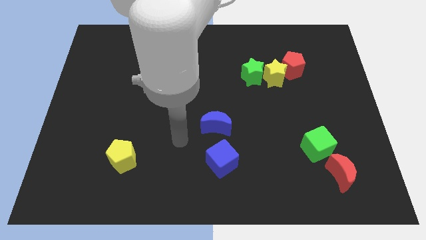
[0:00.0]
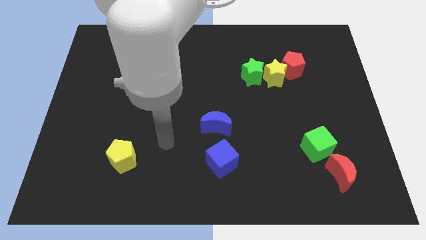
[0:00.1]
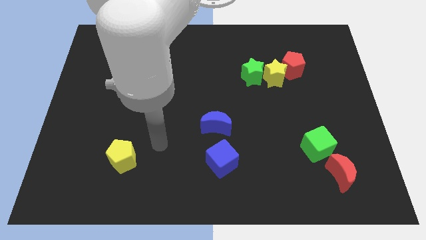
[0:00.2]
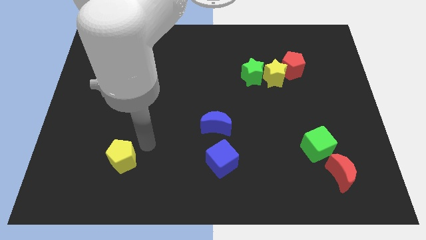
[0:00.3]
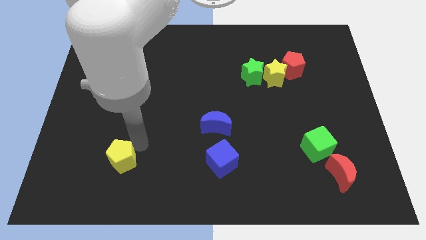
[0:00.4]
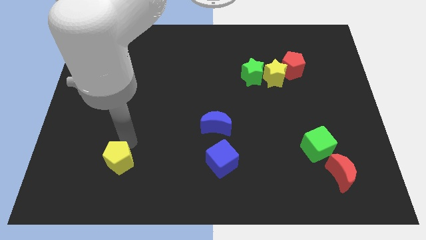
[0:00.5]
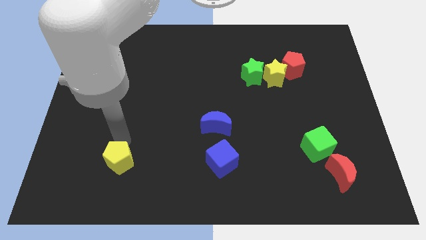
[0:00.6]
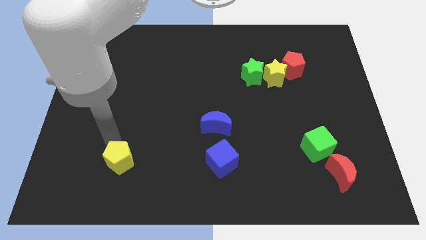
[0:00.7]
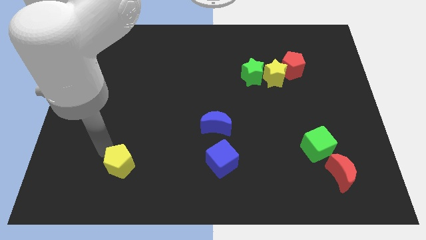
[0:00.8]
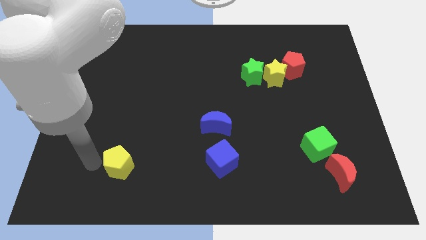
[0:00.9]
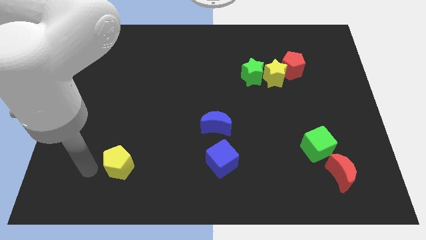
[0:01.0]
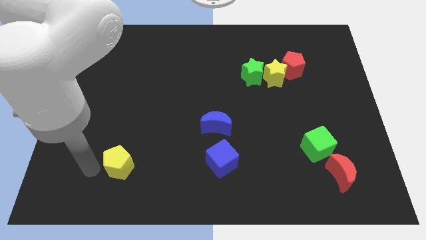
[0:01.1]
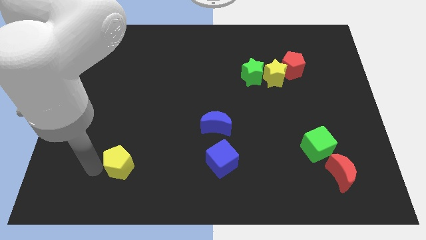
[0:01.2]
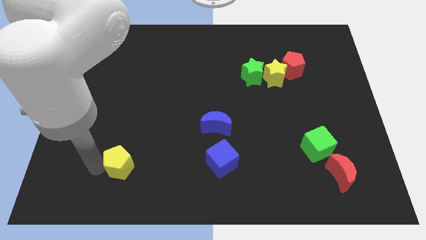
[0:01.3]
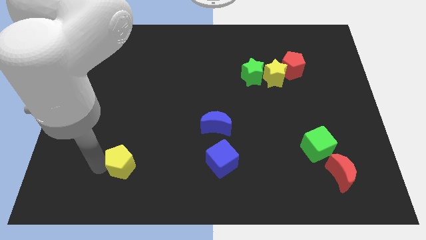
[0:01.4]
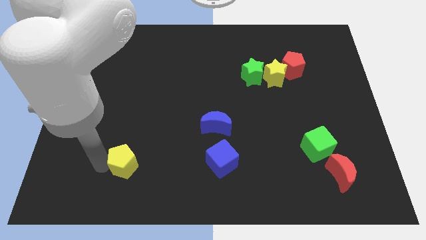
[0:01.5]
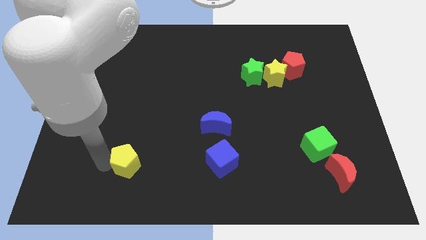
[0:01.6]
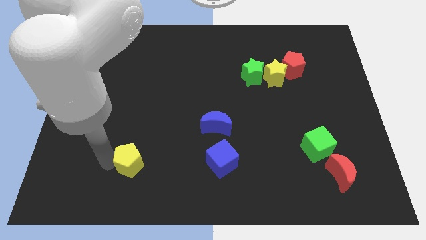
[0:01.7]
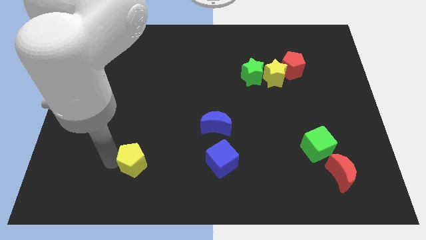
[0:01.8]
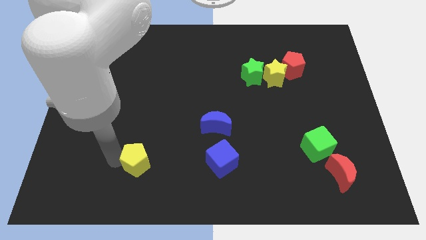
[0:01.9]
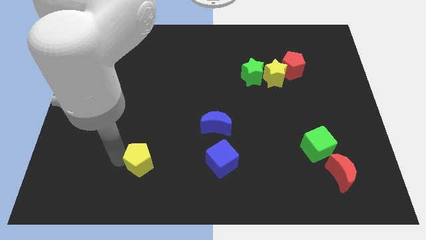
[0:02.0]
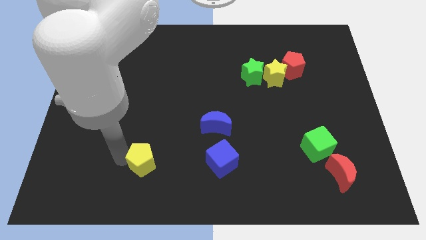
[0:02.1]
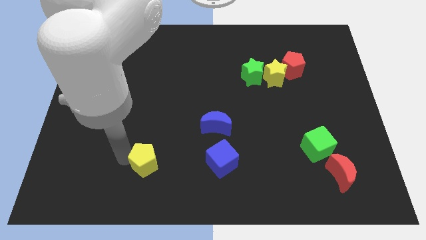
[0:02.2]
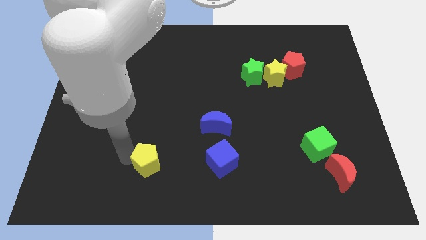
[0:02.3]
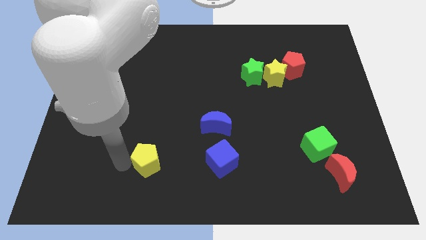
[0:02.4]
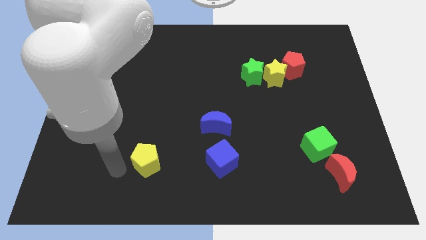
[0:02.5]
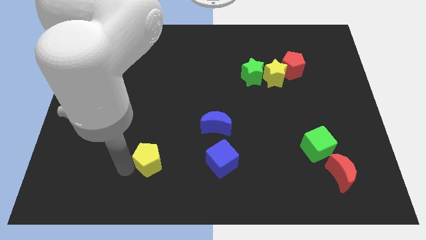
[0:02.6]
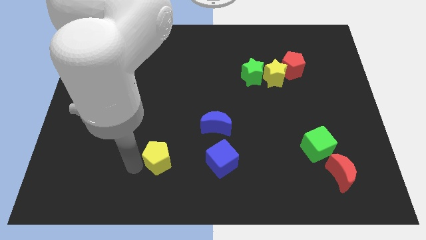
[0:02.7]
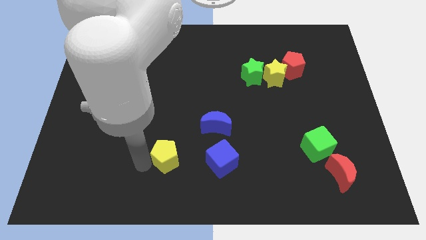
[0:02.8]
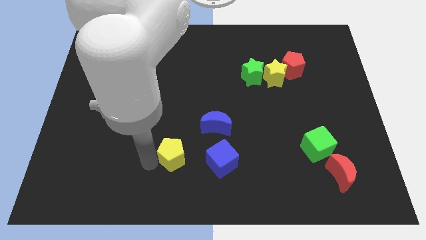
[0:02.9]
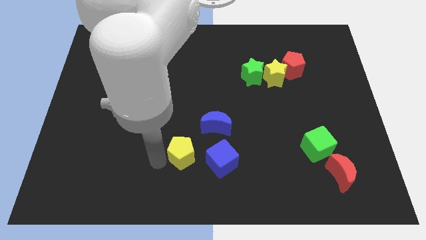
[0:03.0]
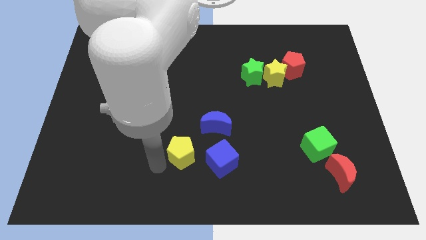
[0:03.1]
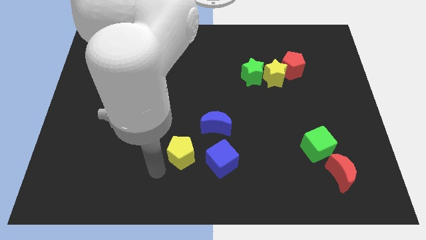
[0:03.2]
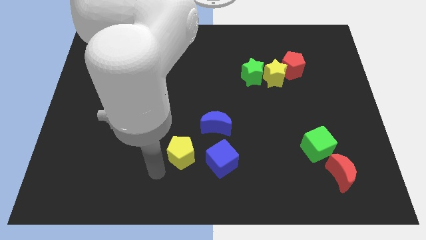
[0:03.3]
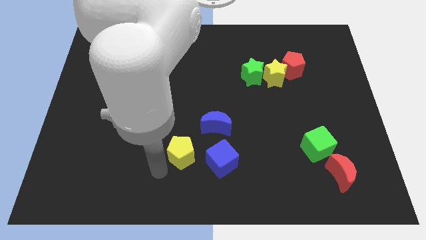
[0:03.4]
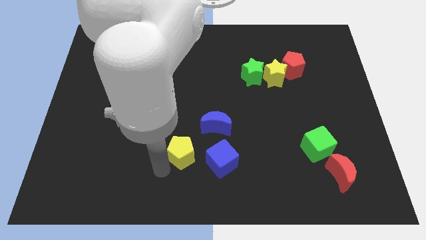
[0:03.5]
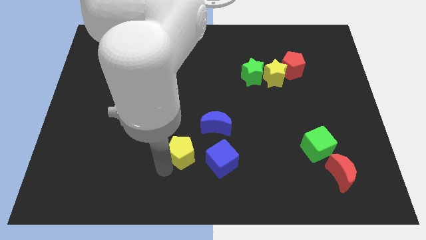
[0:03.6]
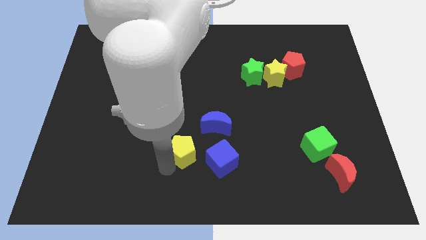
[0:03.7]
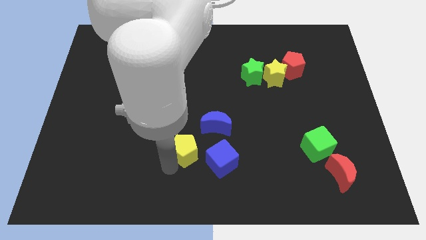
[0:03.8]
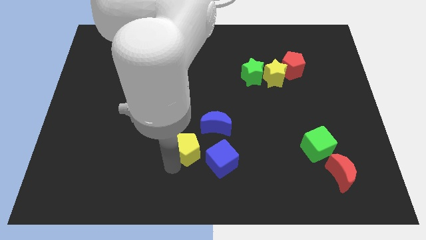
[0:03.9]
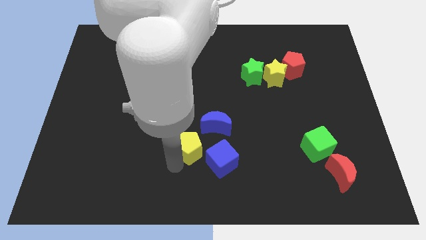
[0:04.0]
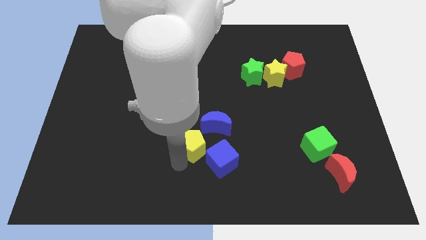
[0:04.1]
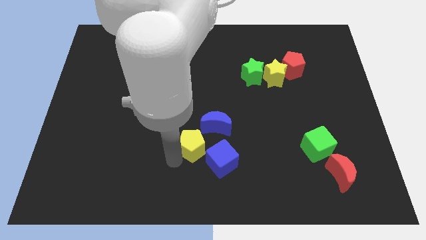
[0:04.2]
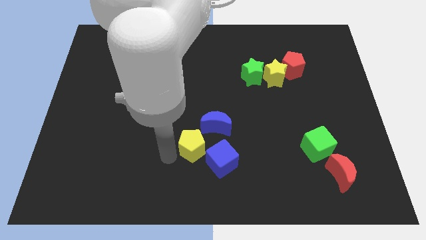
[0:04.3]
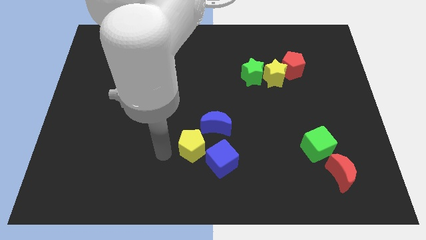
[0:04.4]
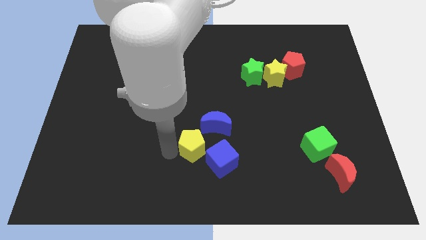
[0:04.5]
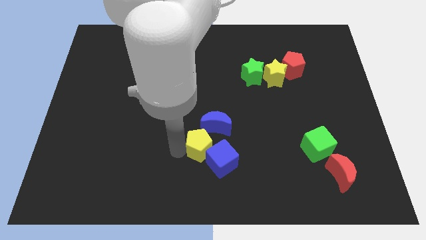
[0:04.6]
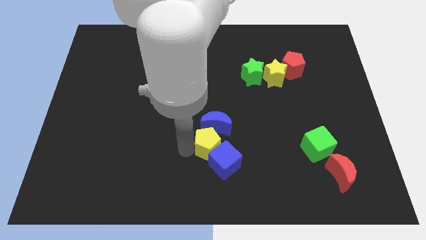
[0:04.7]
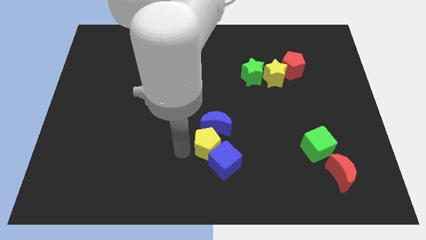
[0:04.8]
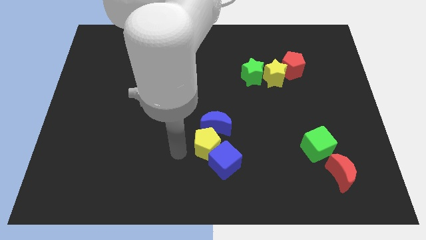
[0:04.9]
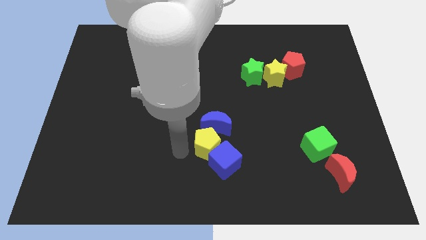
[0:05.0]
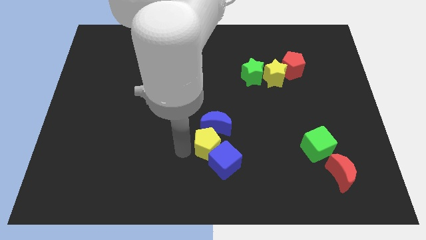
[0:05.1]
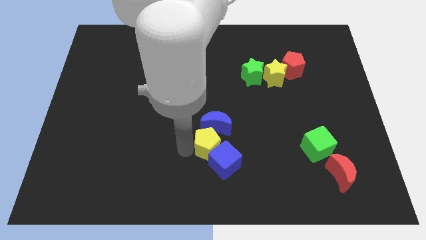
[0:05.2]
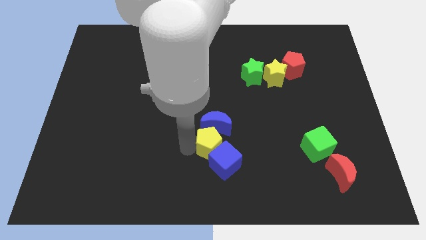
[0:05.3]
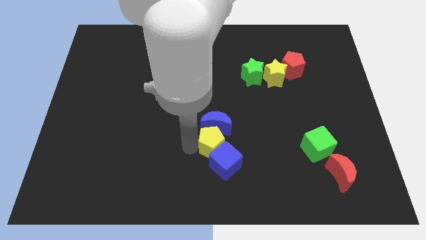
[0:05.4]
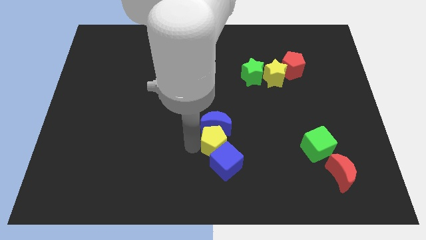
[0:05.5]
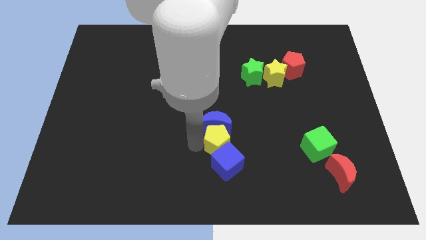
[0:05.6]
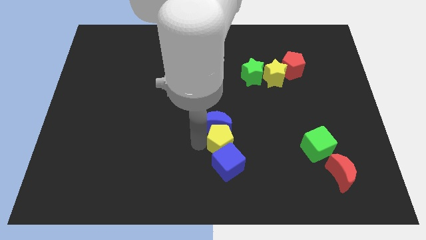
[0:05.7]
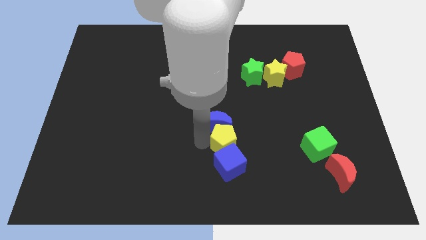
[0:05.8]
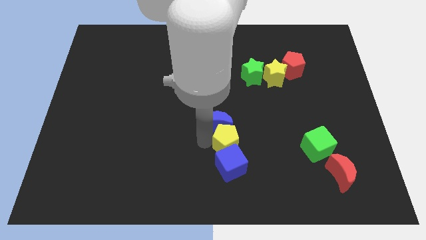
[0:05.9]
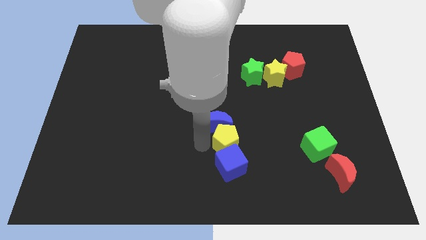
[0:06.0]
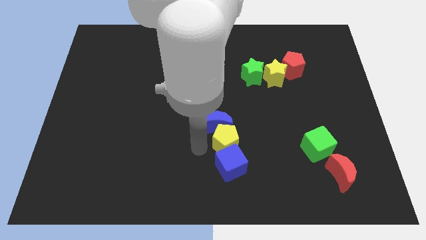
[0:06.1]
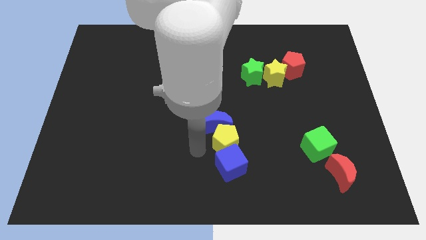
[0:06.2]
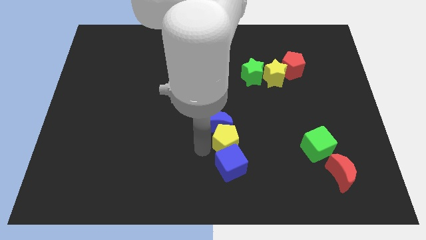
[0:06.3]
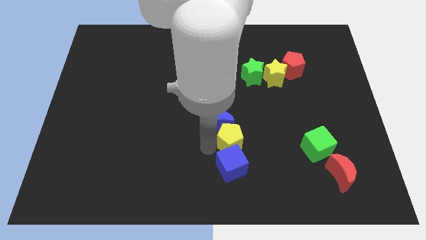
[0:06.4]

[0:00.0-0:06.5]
put the yellow pentagon to the right of the blue moon

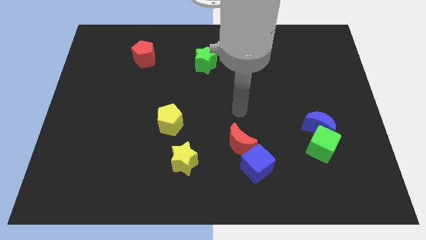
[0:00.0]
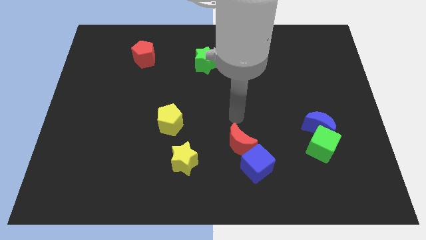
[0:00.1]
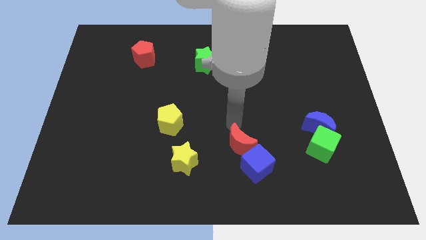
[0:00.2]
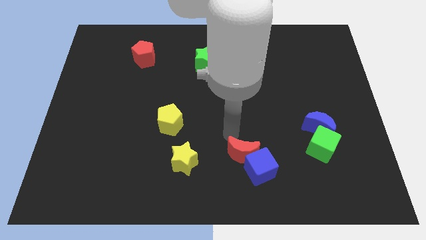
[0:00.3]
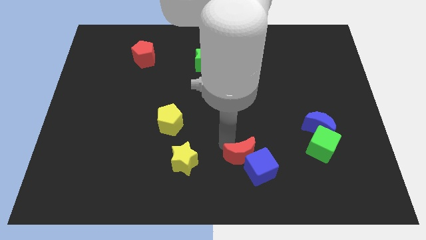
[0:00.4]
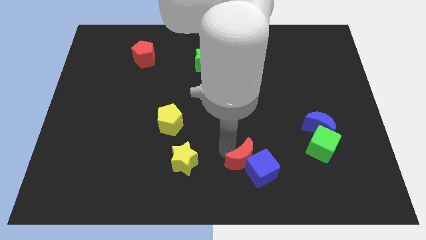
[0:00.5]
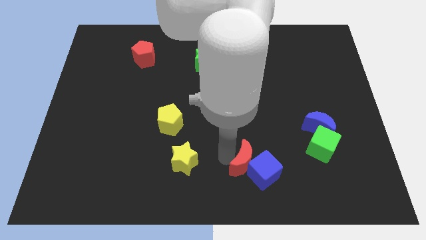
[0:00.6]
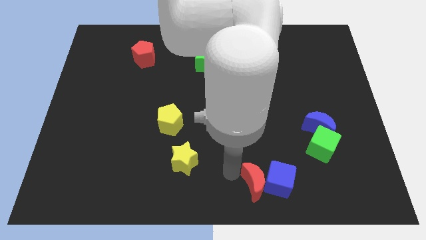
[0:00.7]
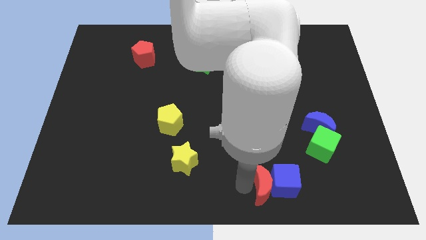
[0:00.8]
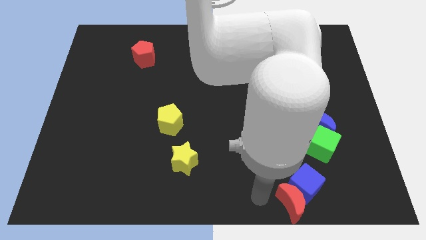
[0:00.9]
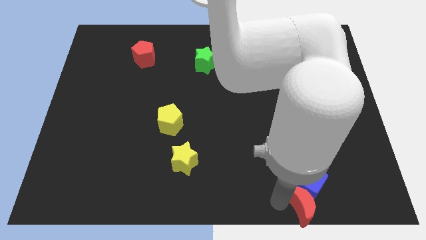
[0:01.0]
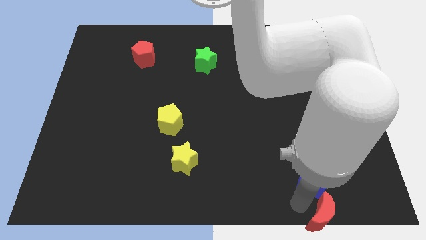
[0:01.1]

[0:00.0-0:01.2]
slide the blue cube to the bottom side of the blue moon
